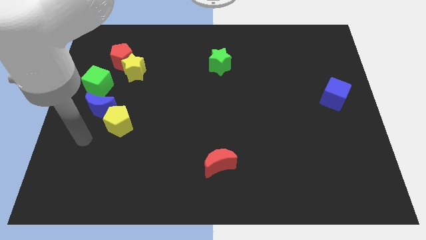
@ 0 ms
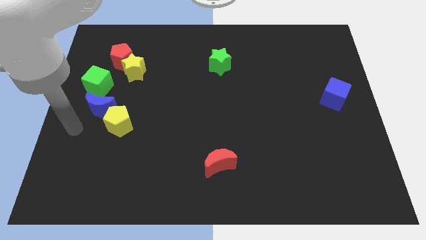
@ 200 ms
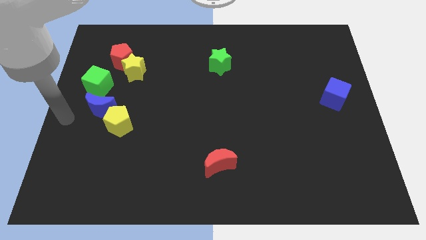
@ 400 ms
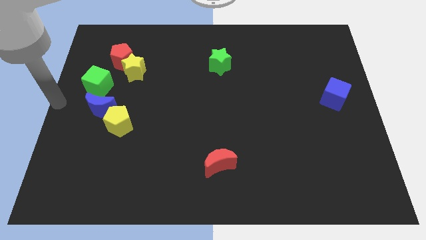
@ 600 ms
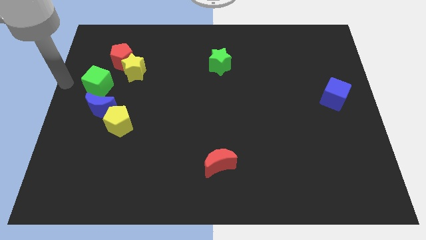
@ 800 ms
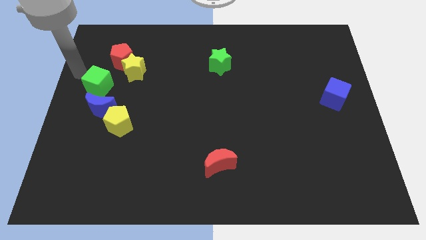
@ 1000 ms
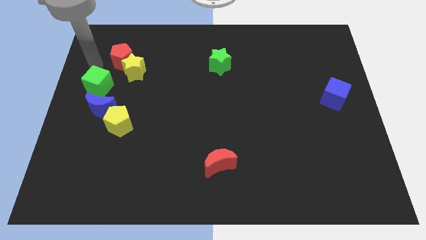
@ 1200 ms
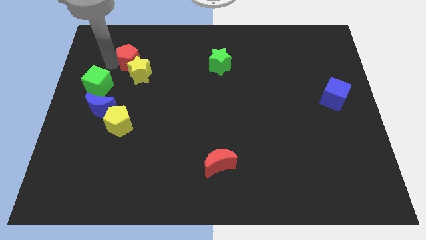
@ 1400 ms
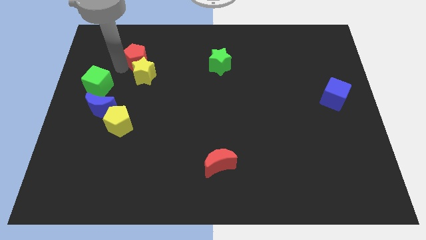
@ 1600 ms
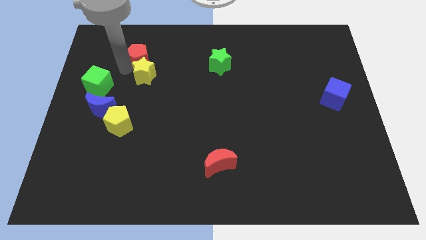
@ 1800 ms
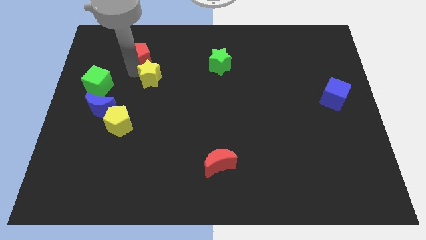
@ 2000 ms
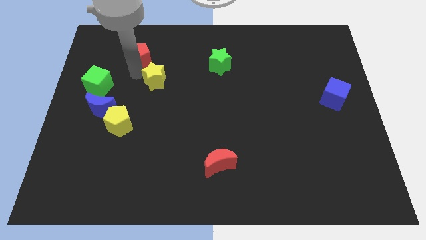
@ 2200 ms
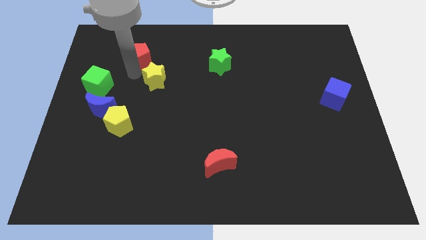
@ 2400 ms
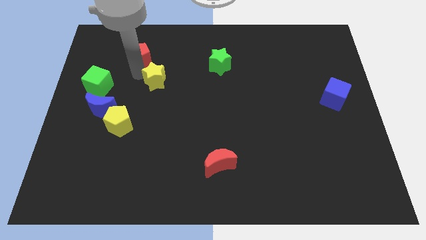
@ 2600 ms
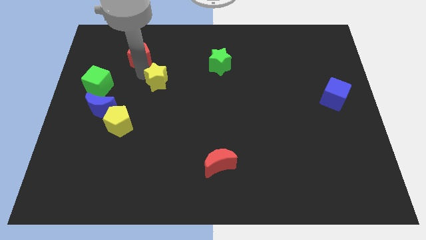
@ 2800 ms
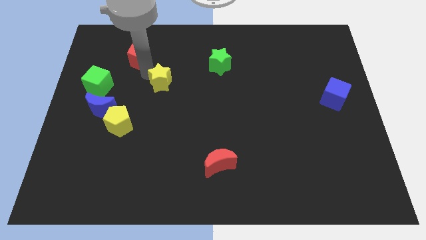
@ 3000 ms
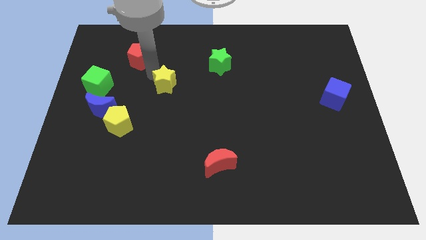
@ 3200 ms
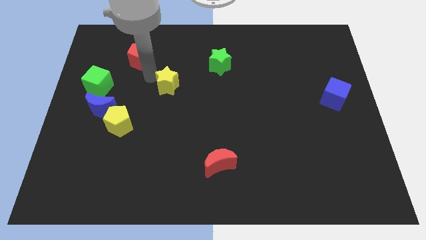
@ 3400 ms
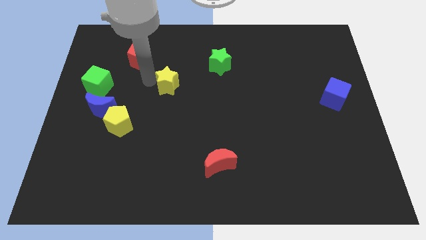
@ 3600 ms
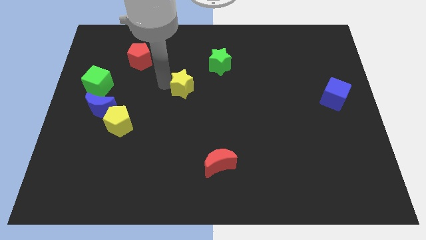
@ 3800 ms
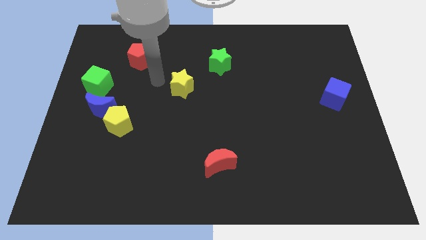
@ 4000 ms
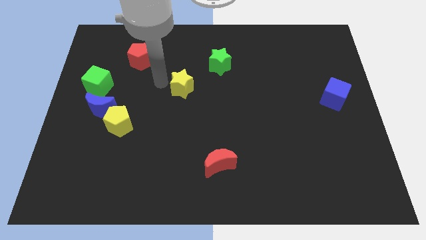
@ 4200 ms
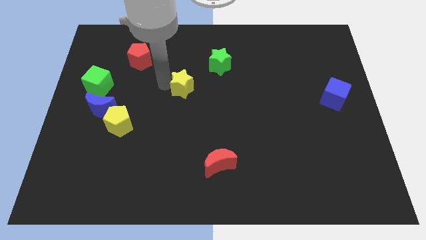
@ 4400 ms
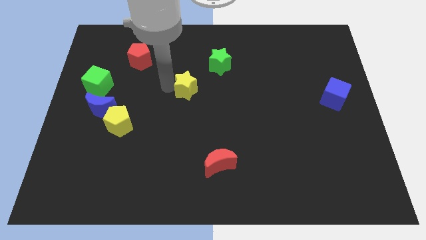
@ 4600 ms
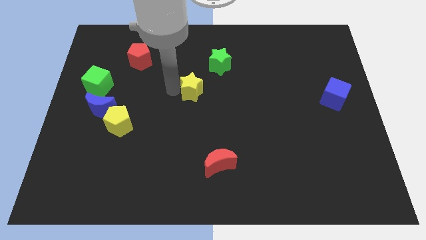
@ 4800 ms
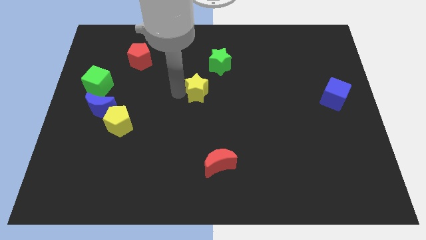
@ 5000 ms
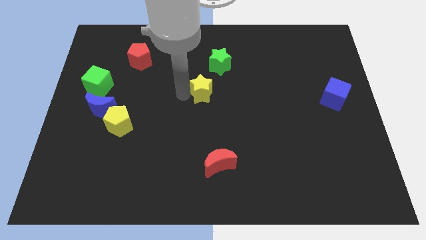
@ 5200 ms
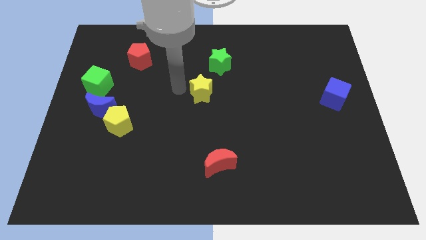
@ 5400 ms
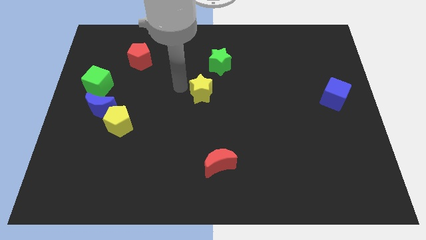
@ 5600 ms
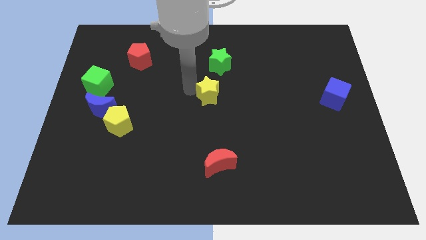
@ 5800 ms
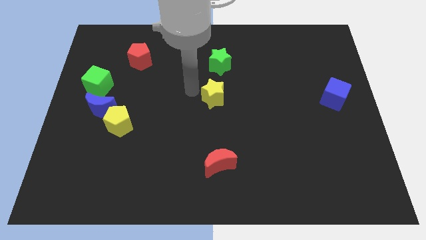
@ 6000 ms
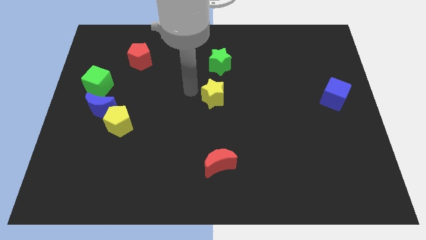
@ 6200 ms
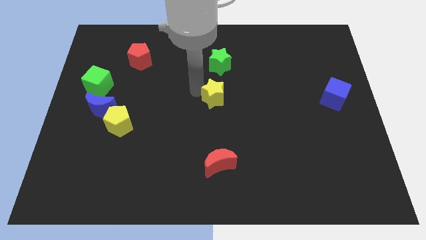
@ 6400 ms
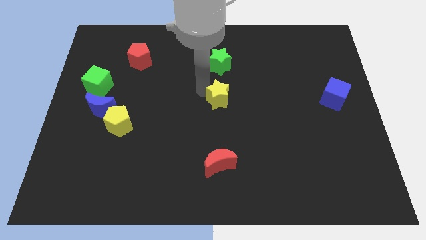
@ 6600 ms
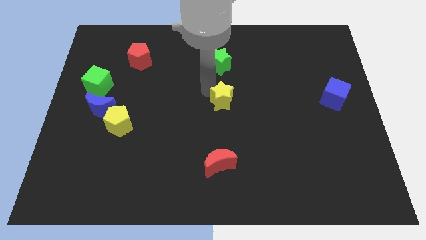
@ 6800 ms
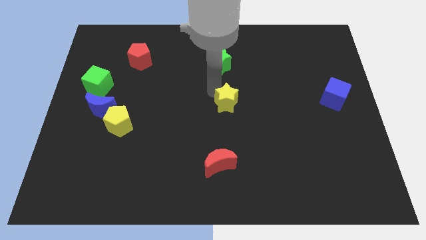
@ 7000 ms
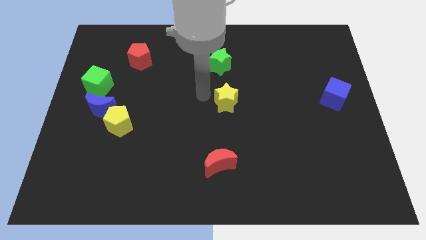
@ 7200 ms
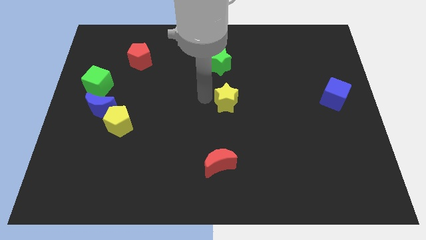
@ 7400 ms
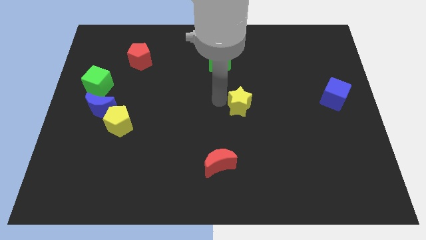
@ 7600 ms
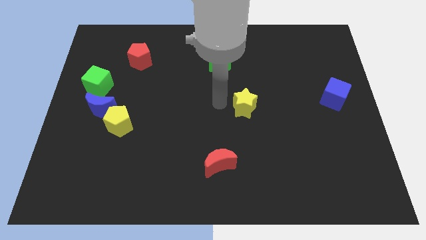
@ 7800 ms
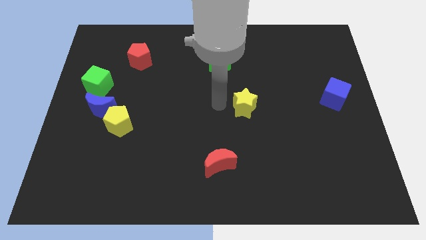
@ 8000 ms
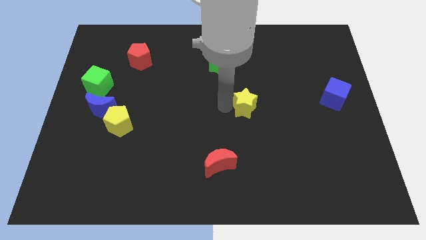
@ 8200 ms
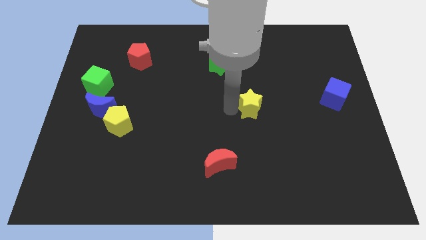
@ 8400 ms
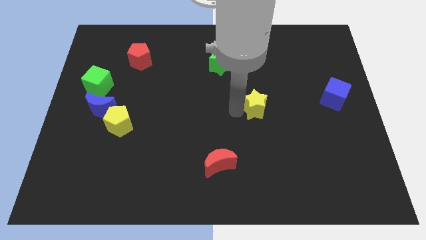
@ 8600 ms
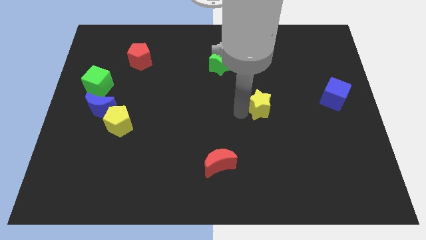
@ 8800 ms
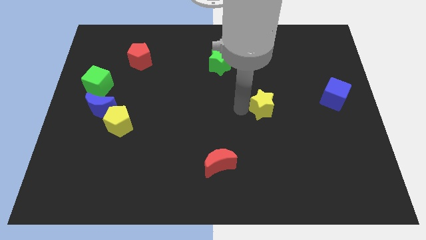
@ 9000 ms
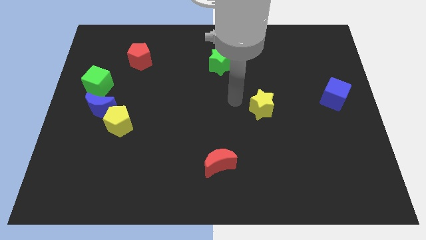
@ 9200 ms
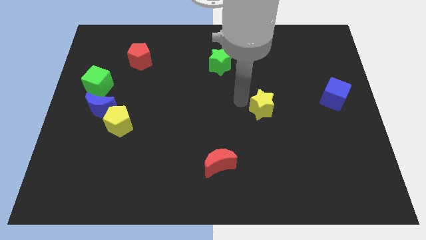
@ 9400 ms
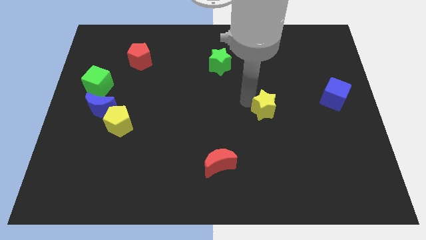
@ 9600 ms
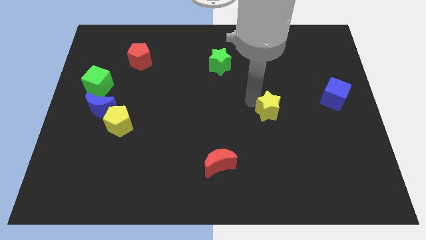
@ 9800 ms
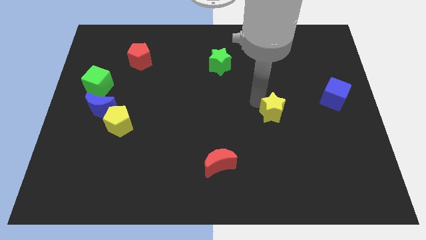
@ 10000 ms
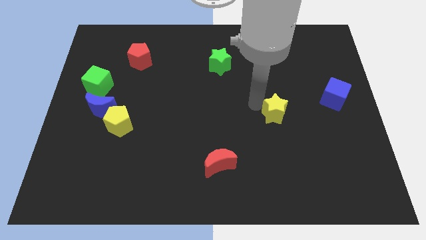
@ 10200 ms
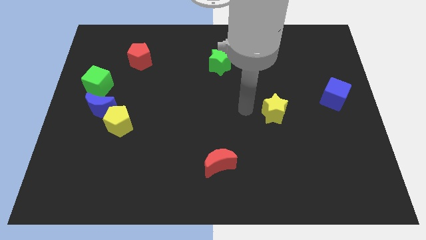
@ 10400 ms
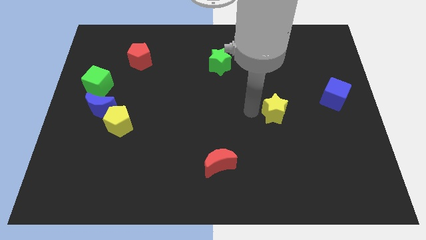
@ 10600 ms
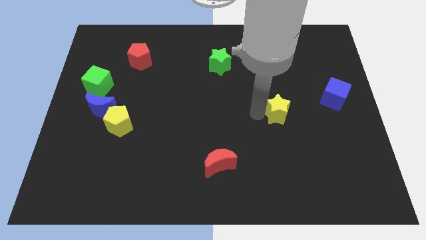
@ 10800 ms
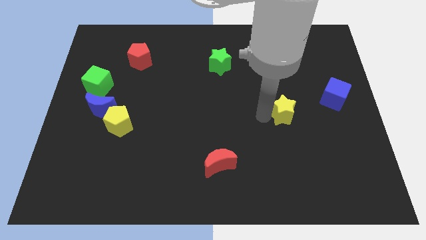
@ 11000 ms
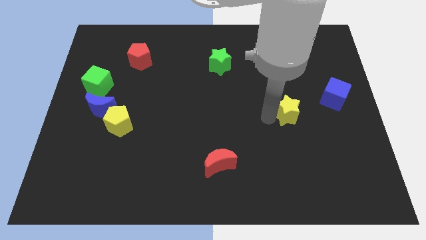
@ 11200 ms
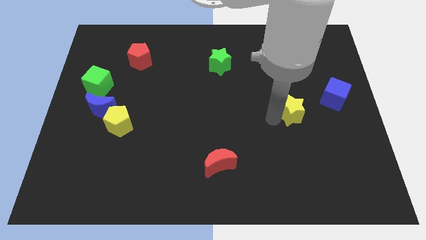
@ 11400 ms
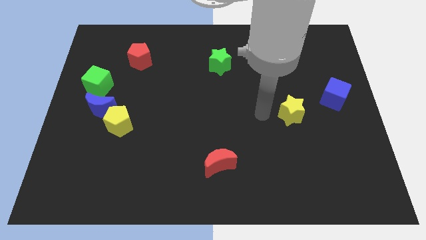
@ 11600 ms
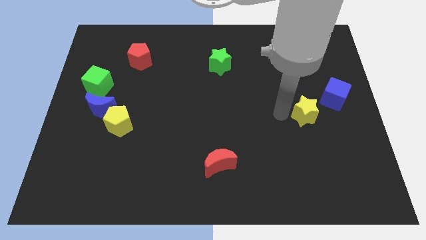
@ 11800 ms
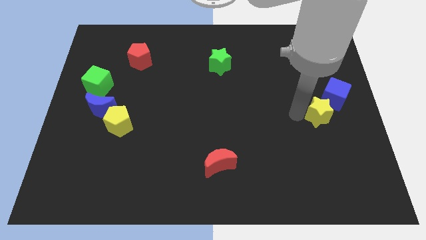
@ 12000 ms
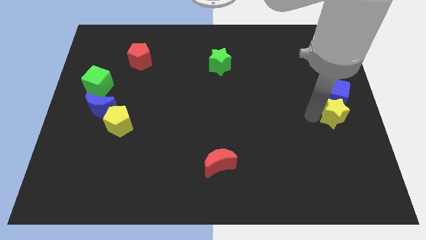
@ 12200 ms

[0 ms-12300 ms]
move the yellow star to the right side of the board

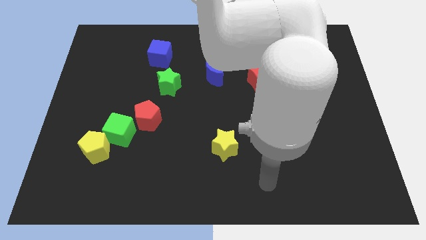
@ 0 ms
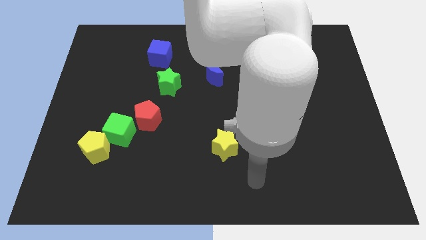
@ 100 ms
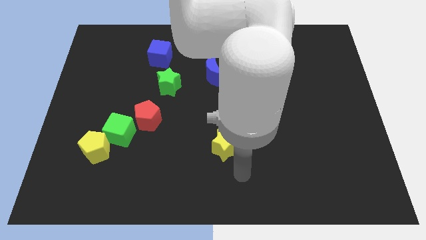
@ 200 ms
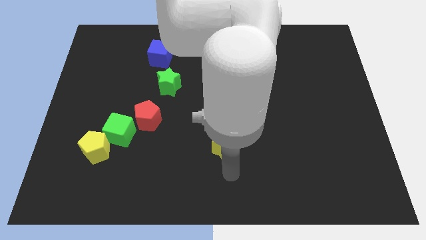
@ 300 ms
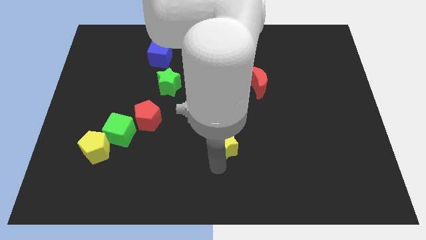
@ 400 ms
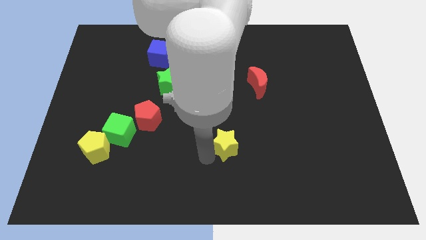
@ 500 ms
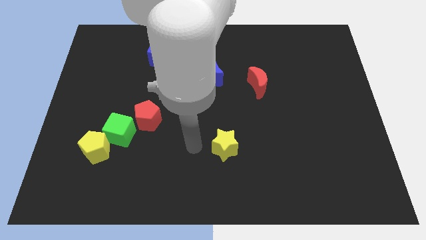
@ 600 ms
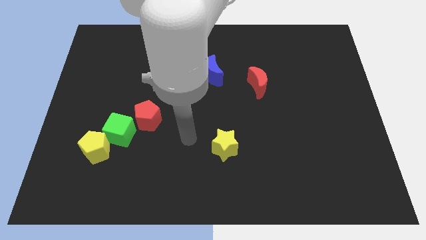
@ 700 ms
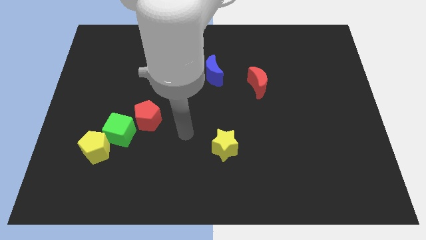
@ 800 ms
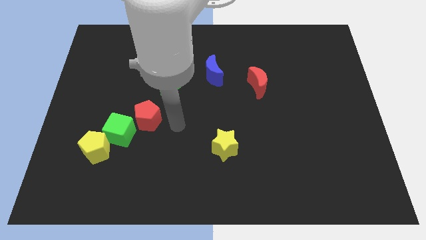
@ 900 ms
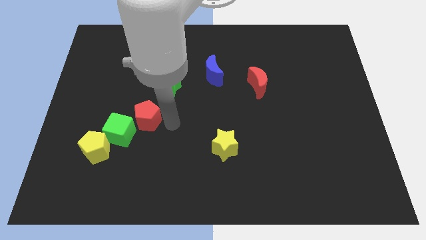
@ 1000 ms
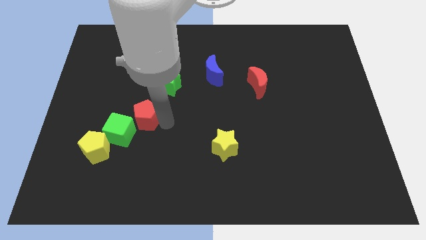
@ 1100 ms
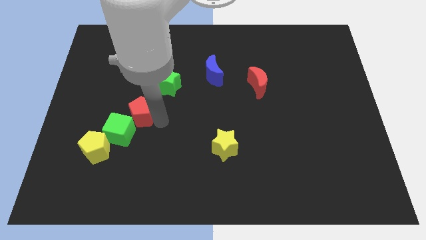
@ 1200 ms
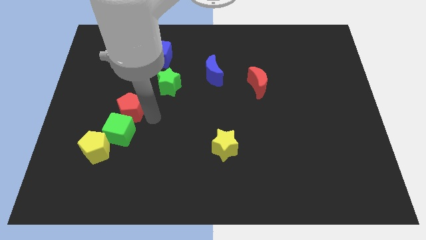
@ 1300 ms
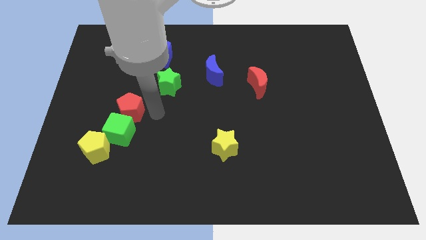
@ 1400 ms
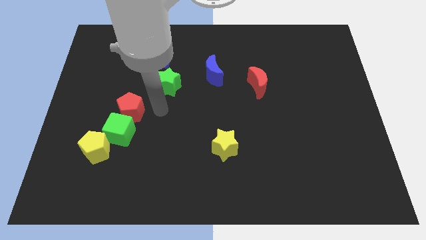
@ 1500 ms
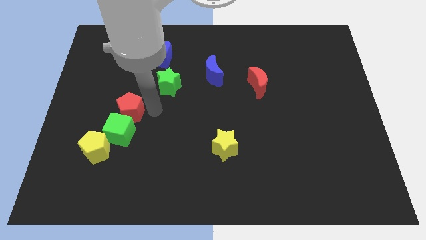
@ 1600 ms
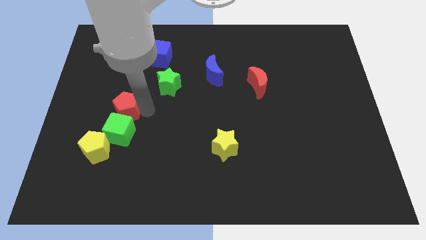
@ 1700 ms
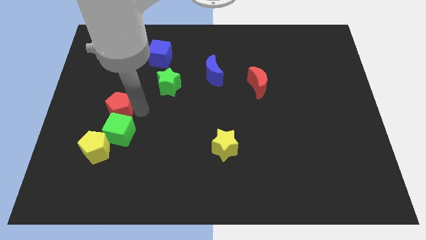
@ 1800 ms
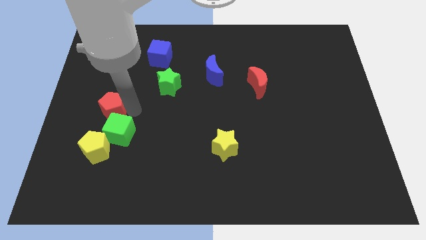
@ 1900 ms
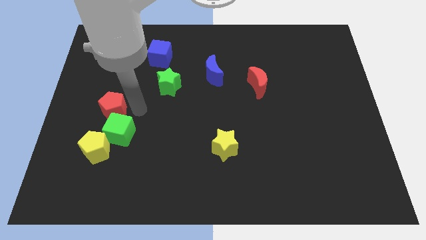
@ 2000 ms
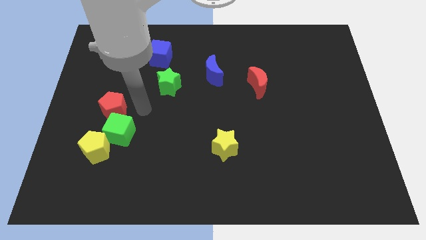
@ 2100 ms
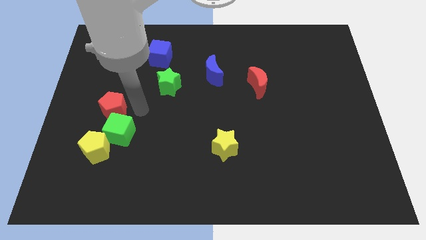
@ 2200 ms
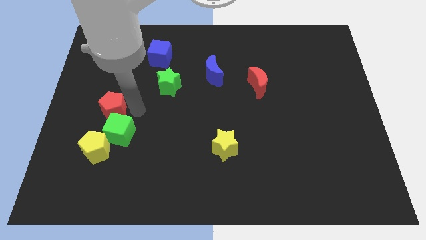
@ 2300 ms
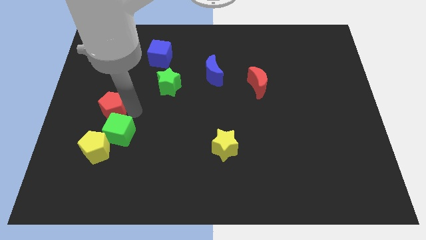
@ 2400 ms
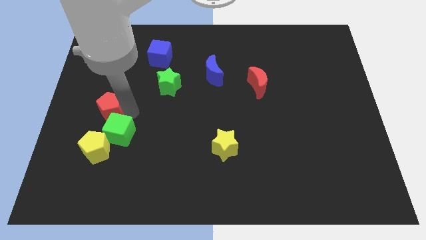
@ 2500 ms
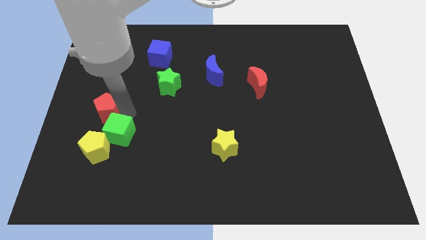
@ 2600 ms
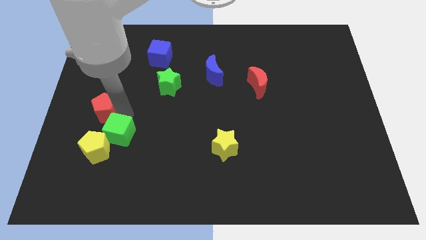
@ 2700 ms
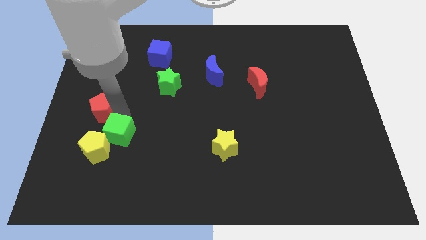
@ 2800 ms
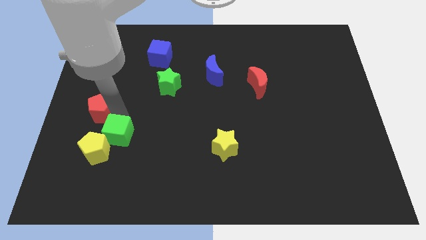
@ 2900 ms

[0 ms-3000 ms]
slide the red pentagon to the center left
